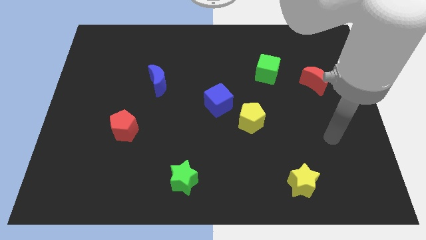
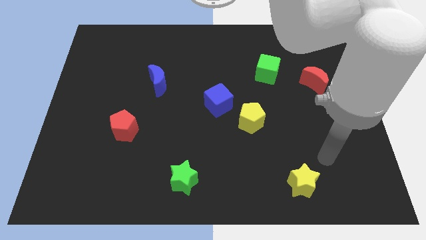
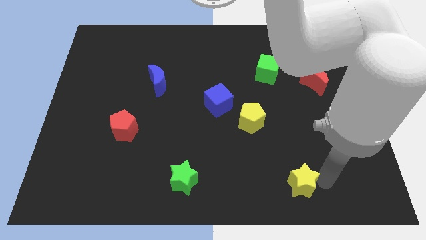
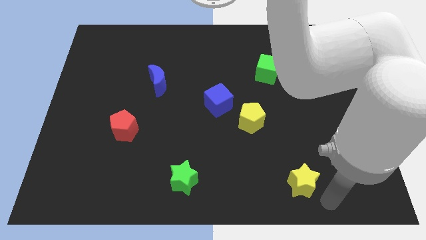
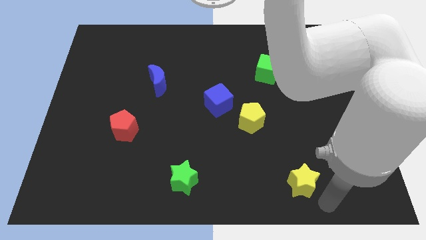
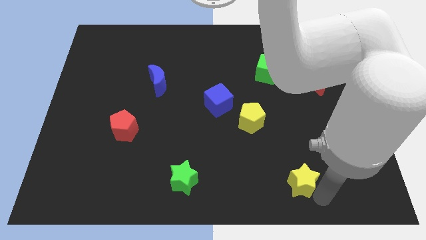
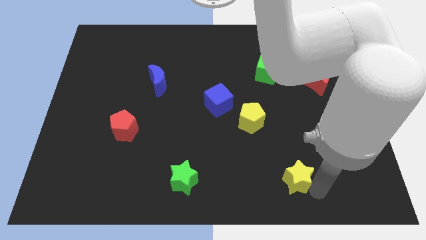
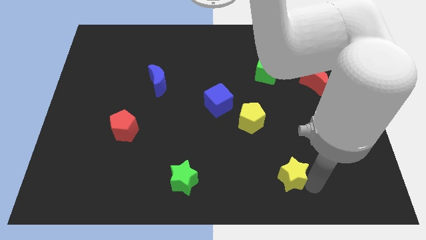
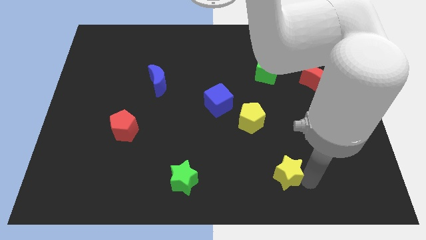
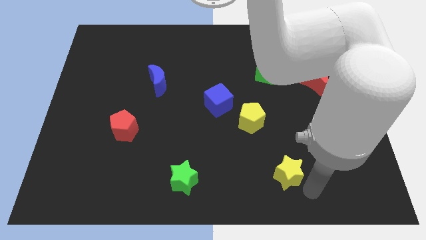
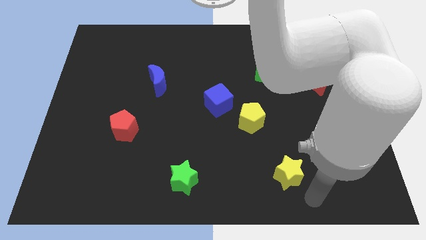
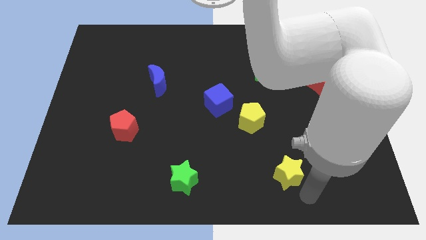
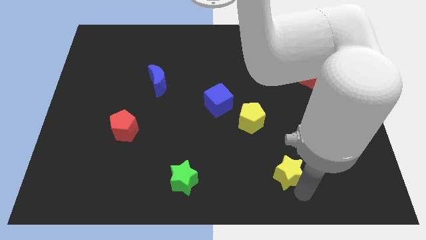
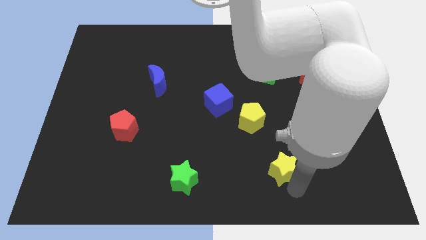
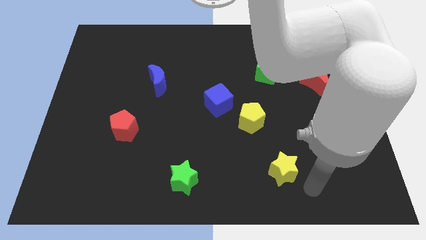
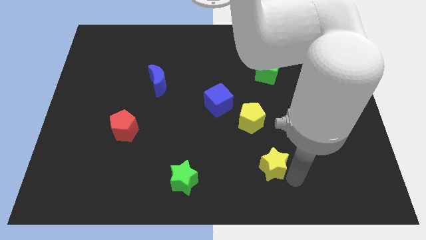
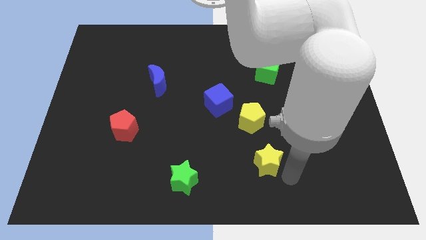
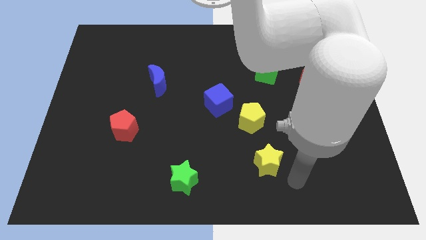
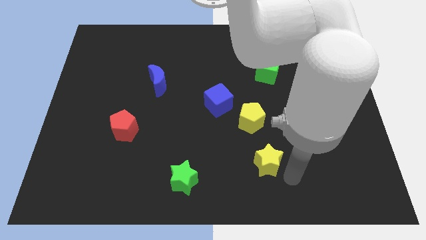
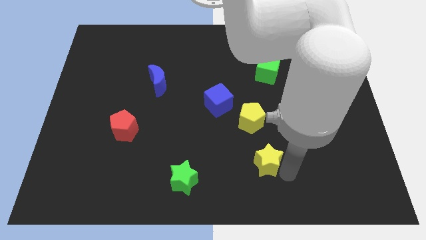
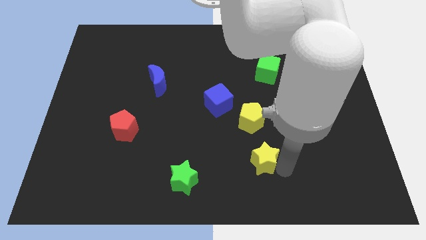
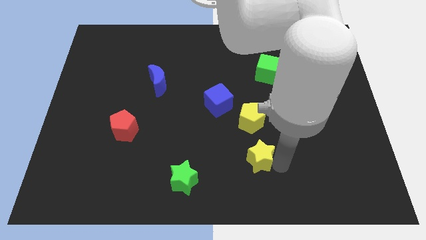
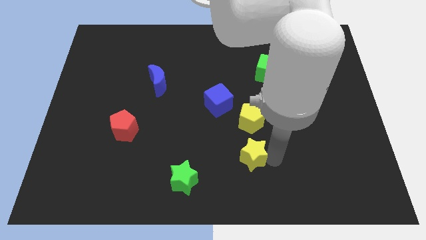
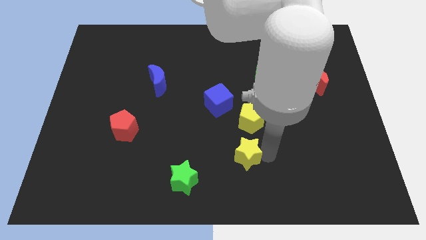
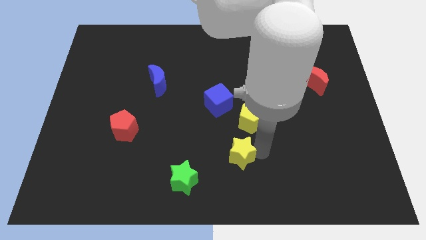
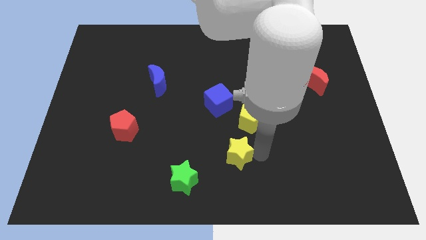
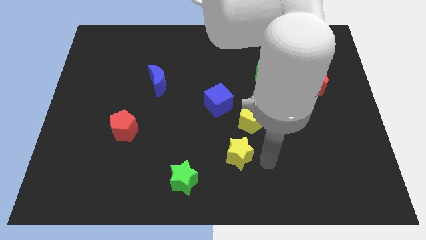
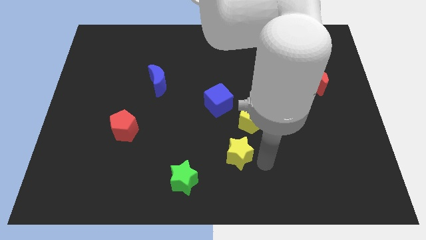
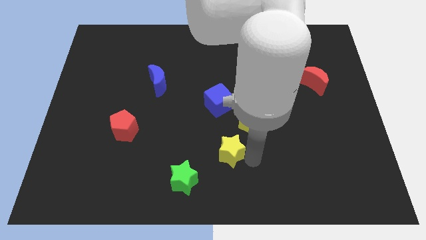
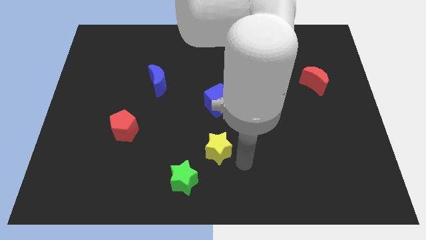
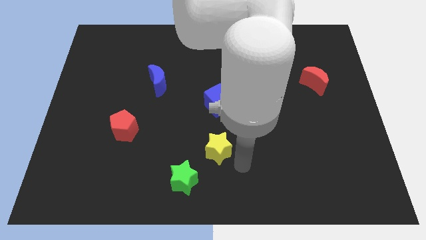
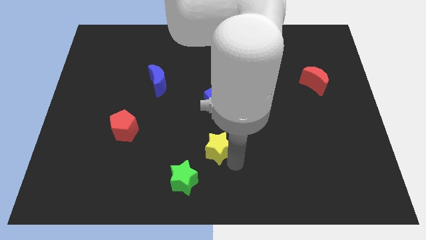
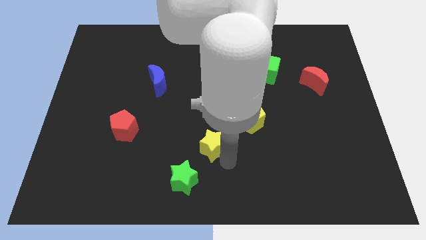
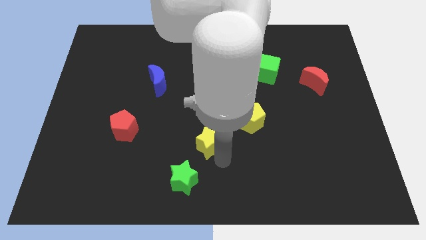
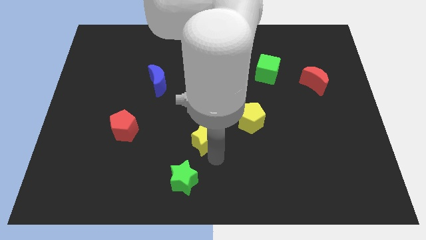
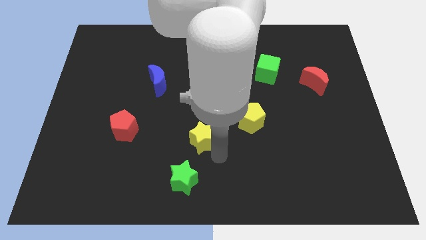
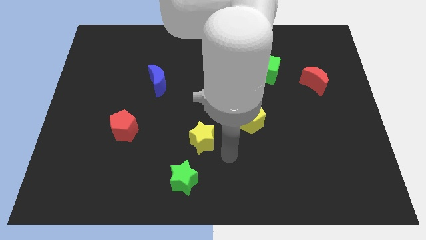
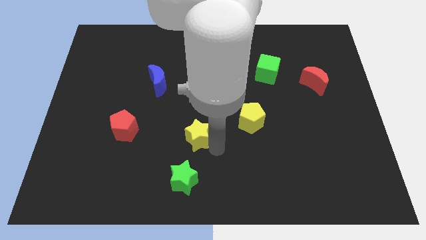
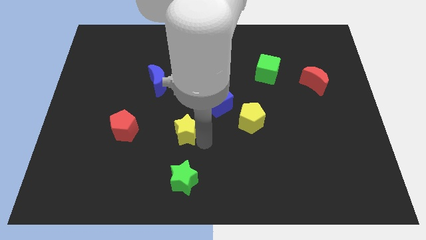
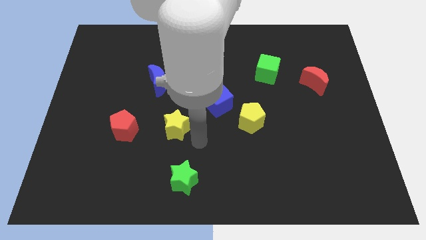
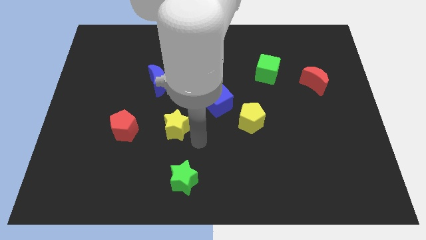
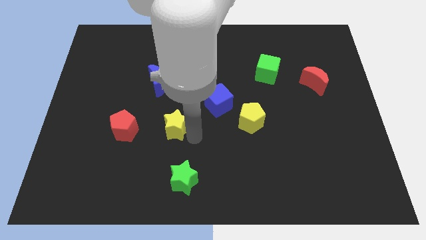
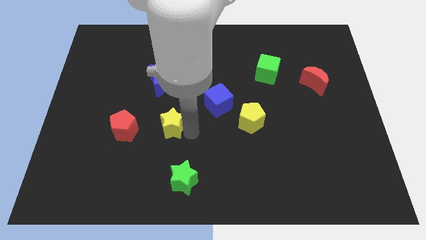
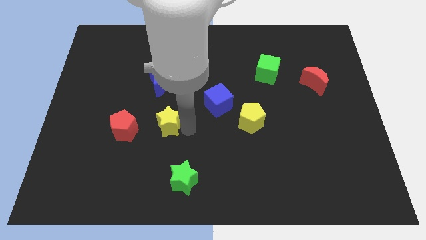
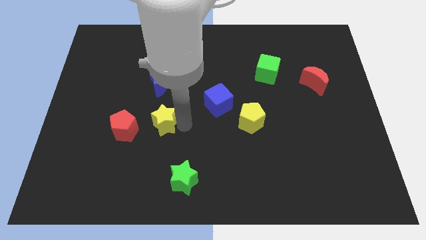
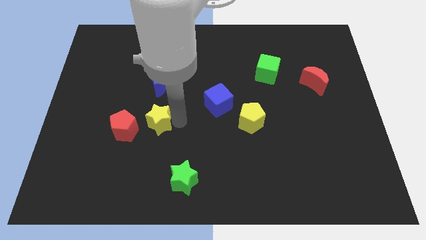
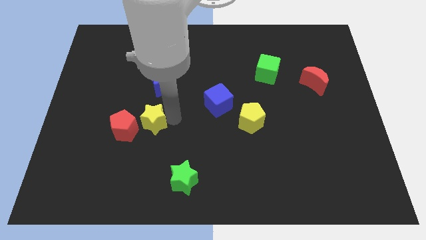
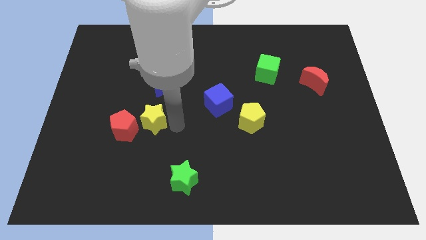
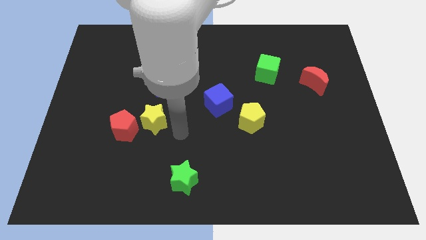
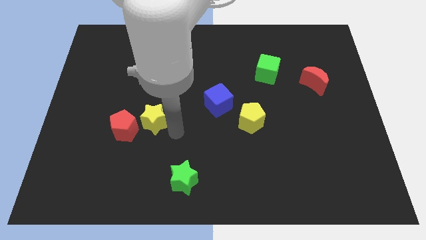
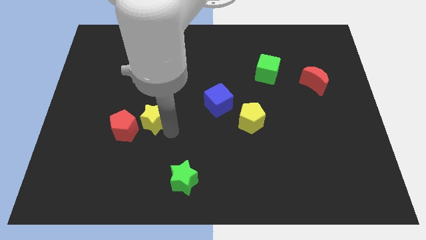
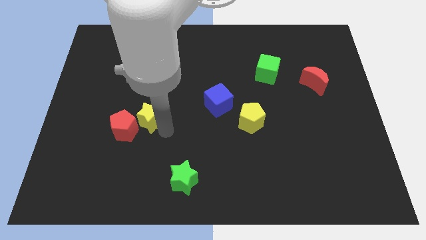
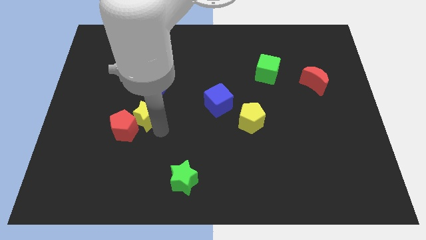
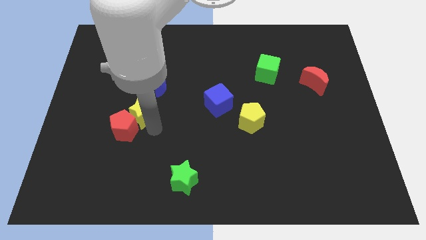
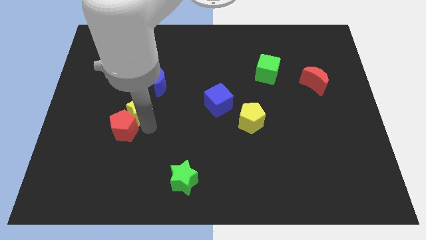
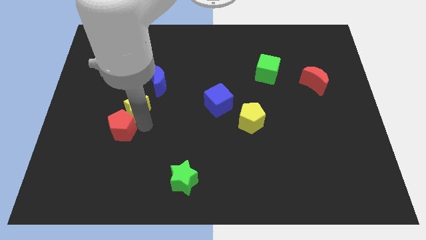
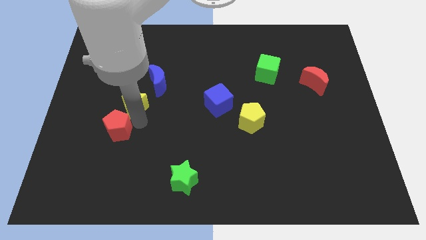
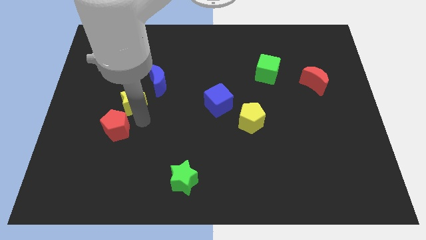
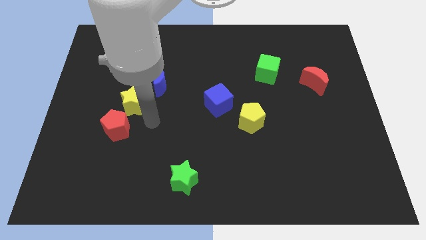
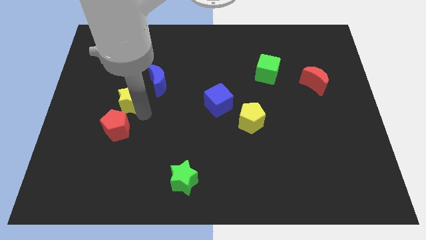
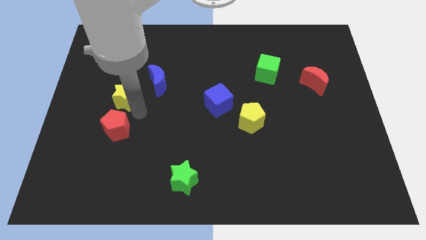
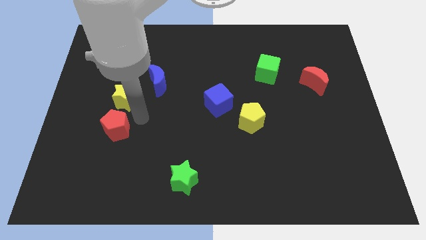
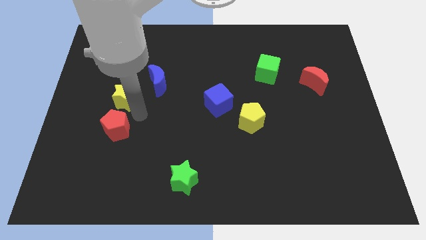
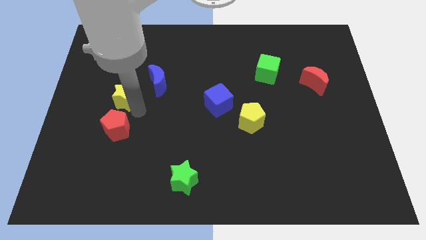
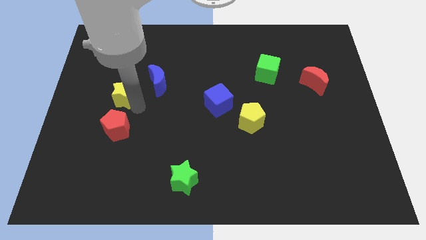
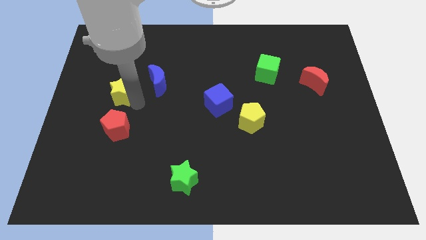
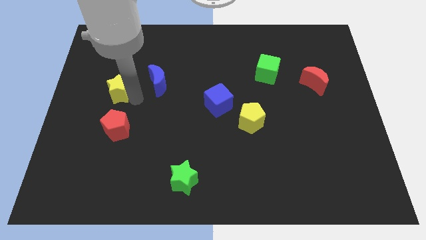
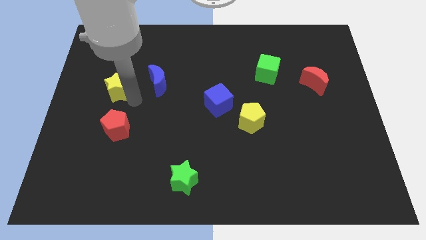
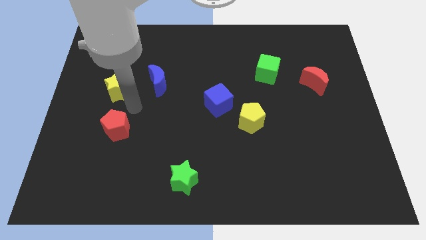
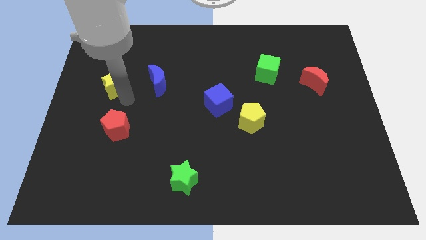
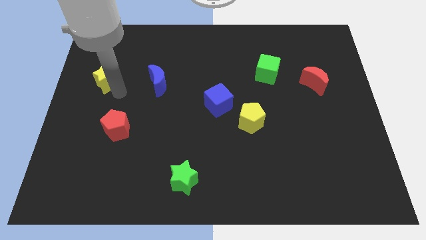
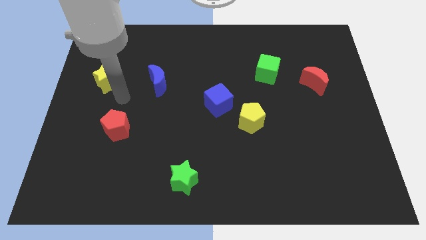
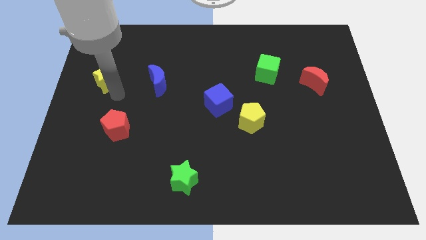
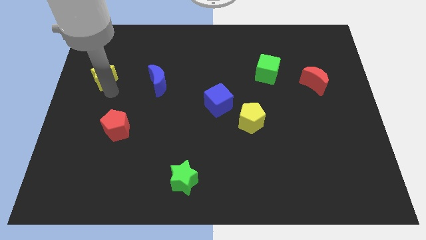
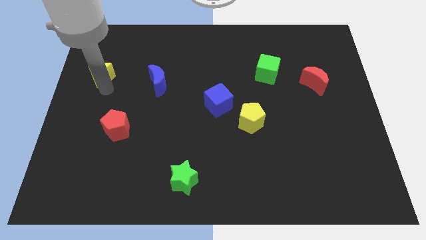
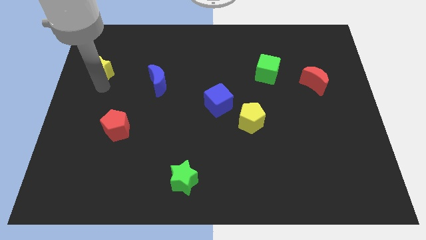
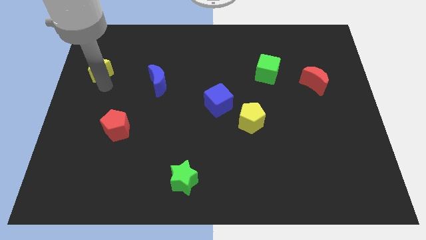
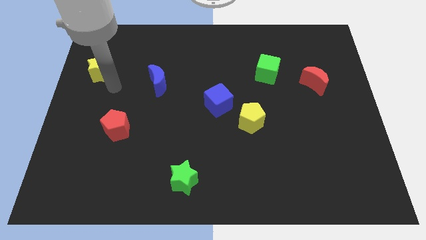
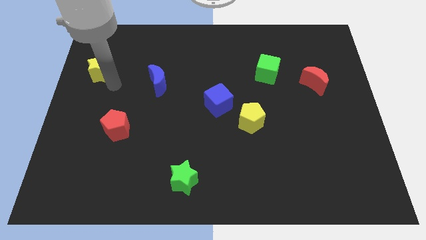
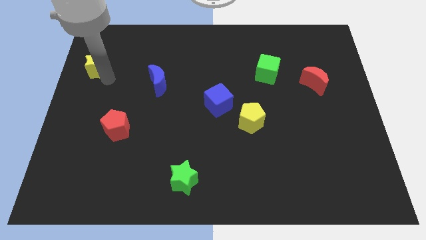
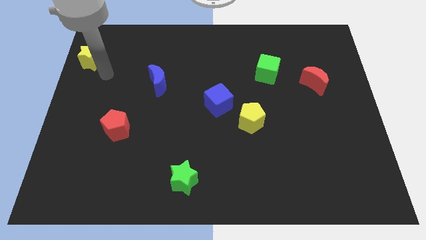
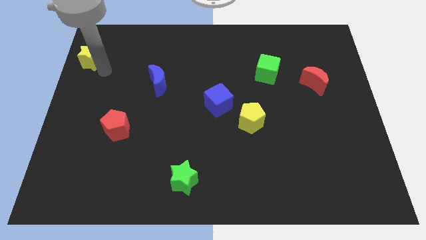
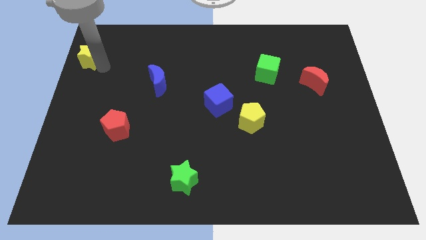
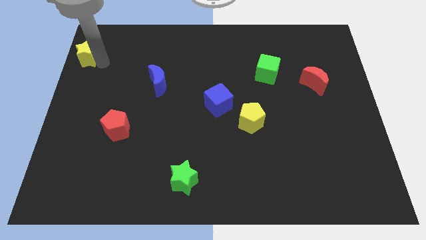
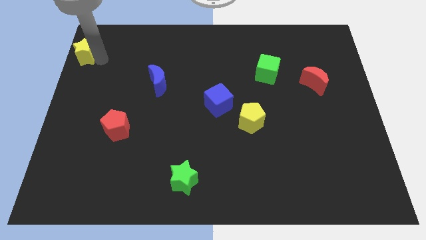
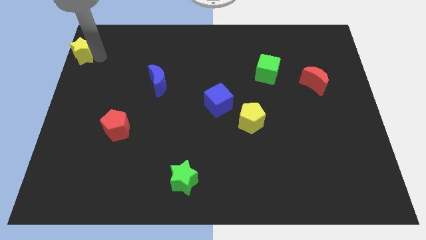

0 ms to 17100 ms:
slide the yellow star to the upper left corner
